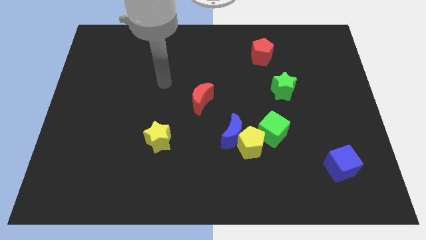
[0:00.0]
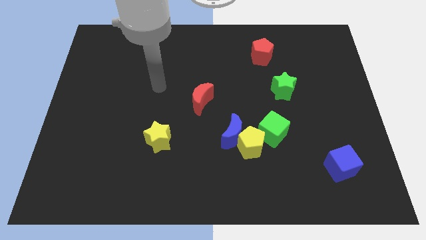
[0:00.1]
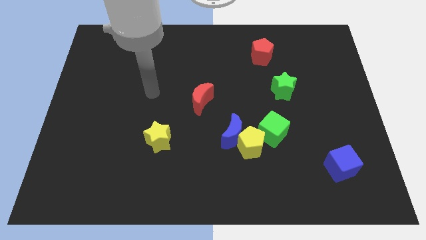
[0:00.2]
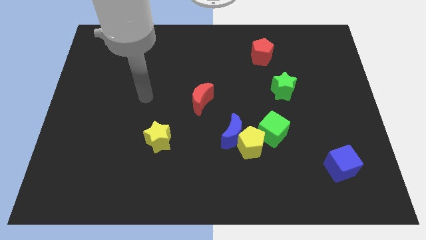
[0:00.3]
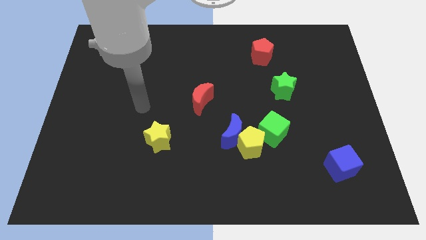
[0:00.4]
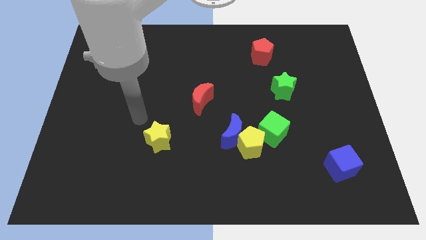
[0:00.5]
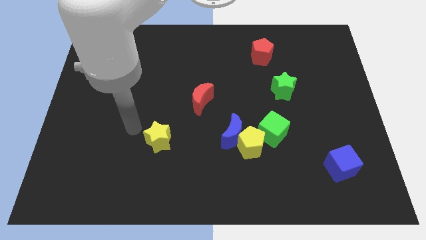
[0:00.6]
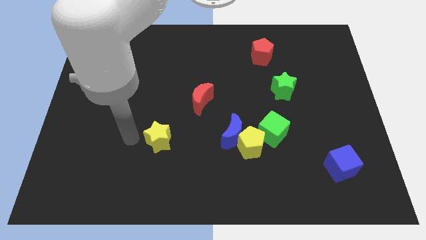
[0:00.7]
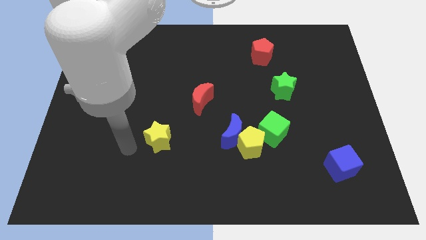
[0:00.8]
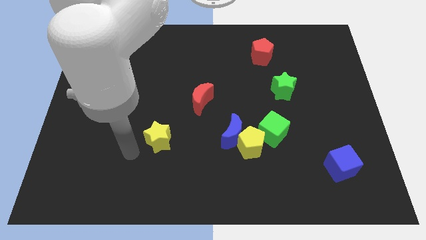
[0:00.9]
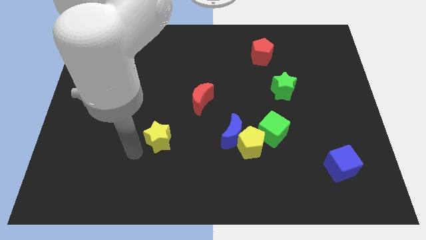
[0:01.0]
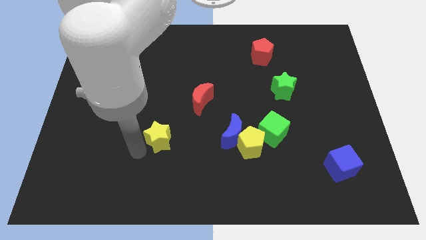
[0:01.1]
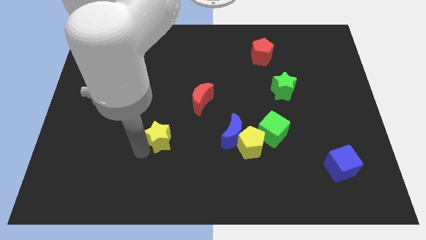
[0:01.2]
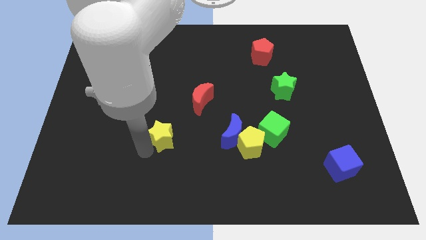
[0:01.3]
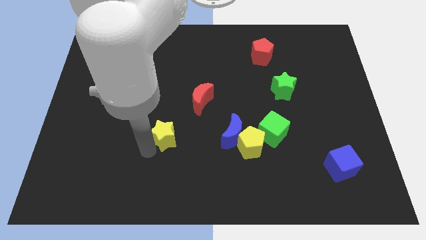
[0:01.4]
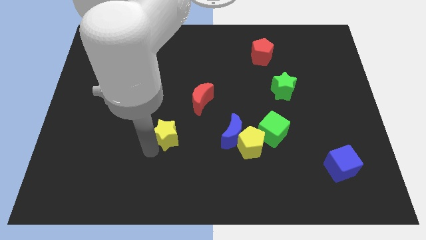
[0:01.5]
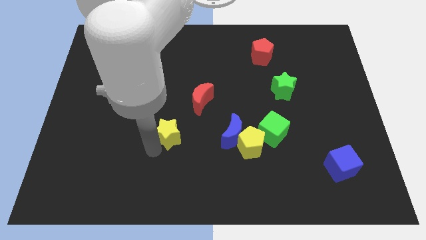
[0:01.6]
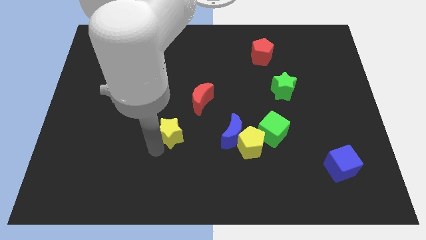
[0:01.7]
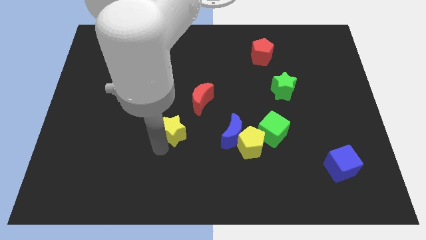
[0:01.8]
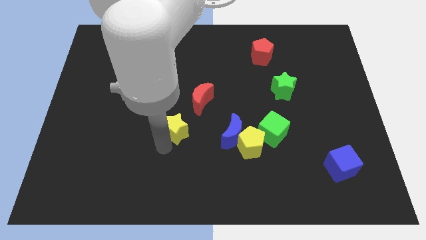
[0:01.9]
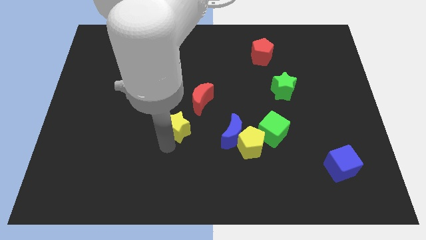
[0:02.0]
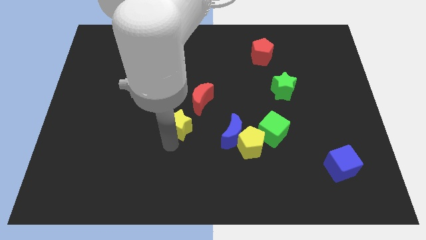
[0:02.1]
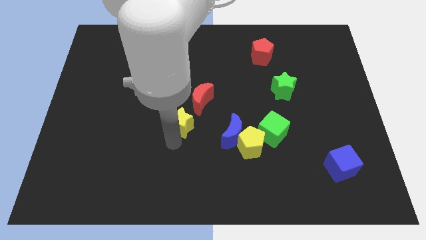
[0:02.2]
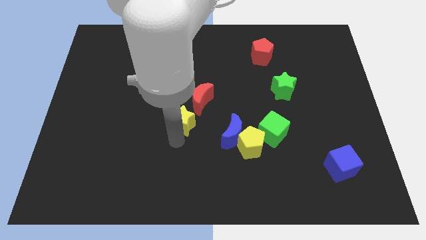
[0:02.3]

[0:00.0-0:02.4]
move the yellow star up and to the right somewhat

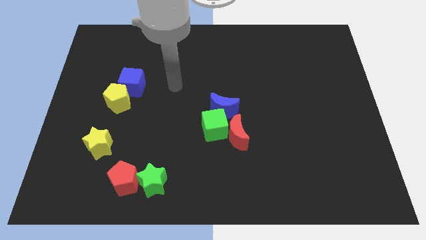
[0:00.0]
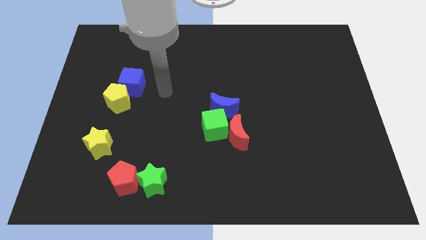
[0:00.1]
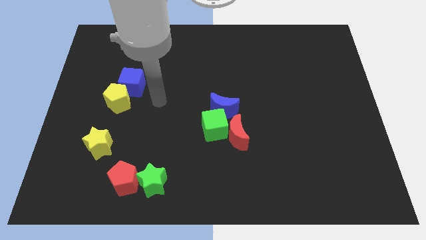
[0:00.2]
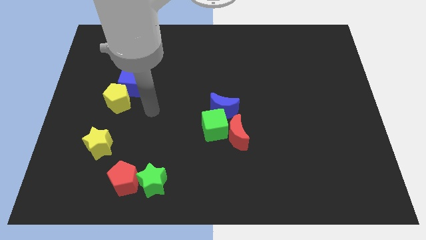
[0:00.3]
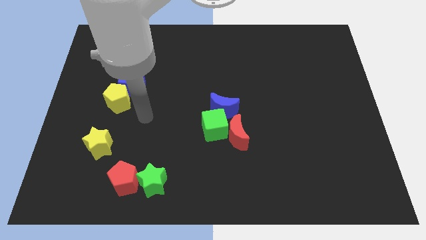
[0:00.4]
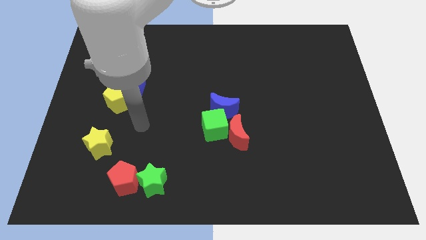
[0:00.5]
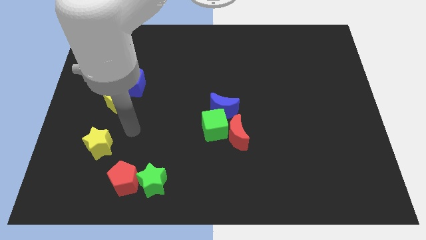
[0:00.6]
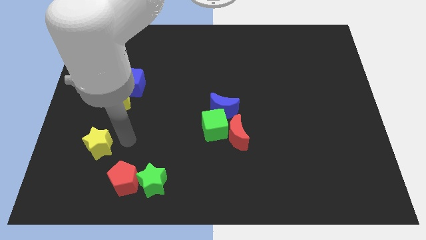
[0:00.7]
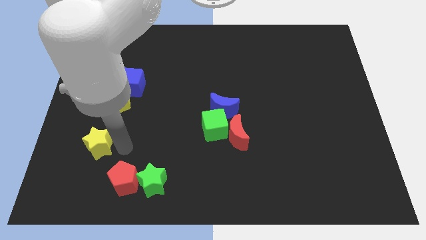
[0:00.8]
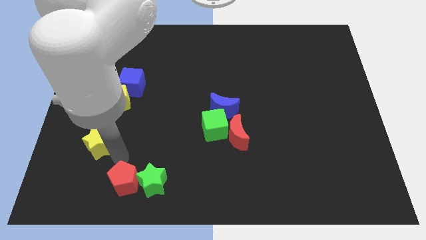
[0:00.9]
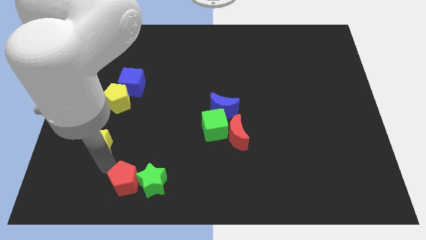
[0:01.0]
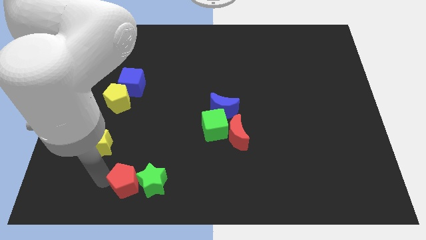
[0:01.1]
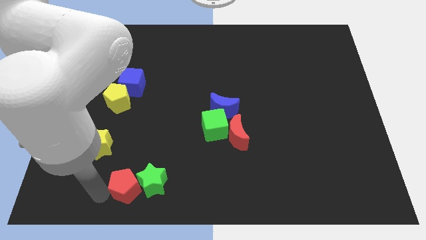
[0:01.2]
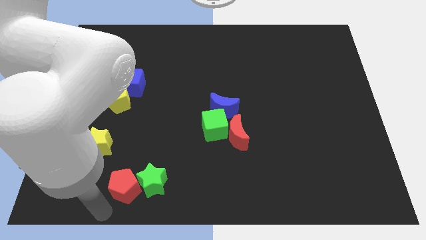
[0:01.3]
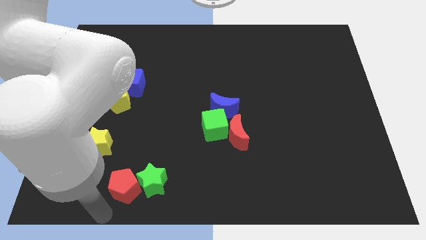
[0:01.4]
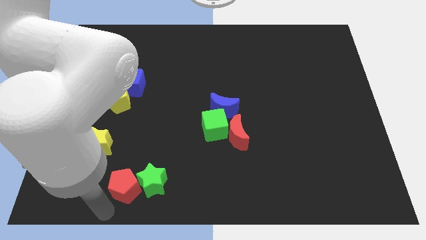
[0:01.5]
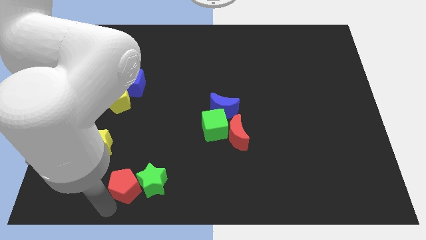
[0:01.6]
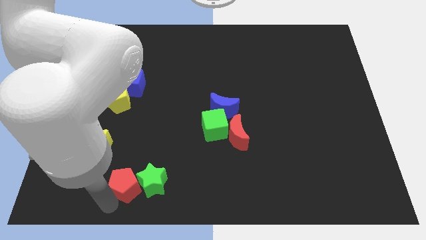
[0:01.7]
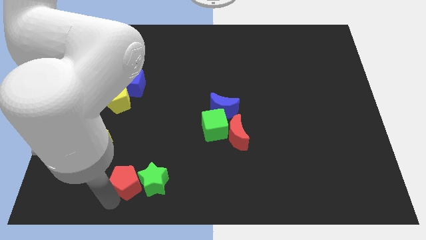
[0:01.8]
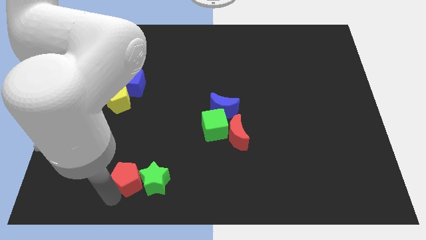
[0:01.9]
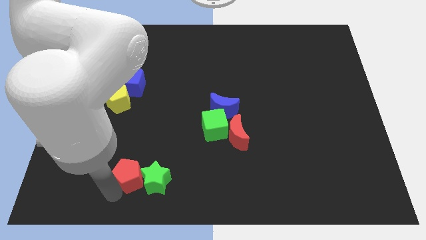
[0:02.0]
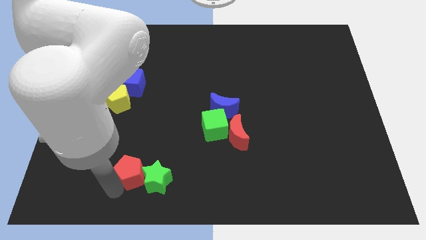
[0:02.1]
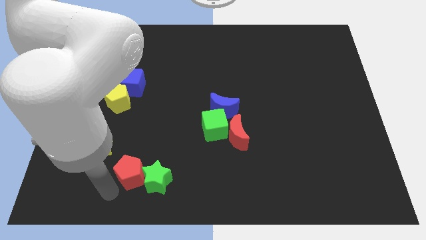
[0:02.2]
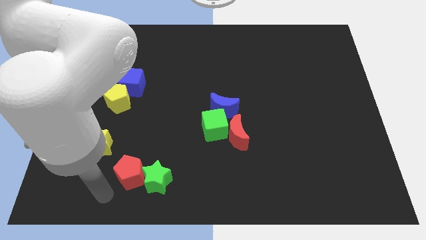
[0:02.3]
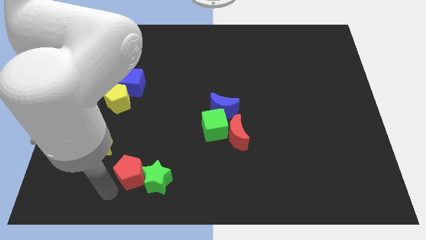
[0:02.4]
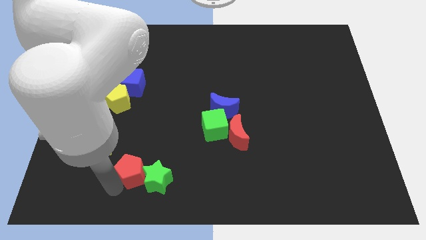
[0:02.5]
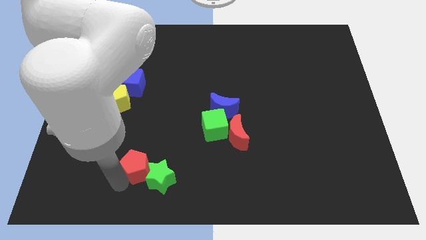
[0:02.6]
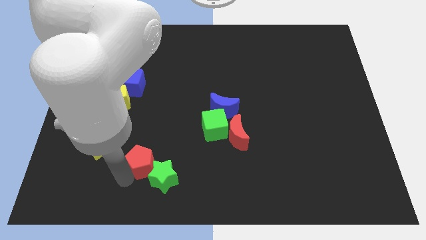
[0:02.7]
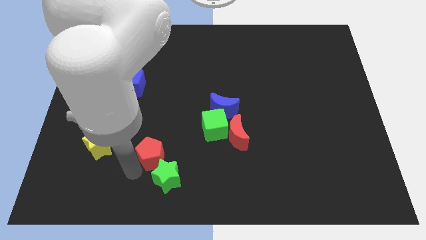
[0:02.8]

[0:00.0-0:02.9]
slightly slide the red pentagon upwards and then to the right

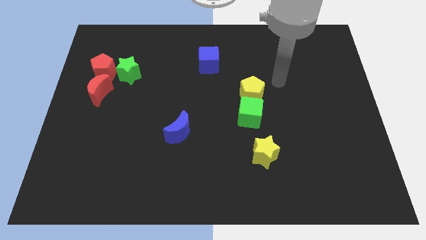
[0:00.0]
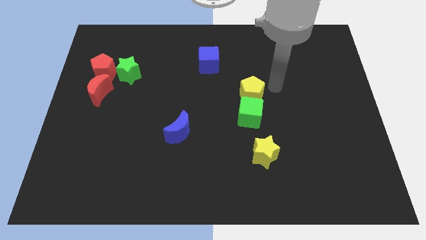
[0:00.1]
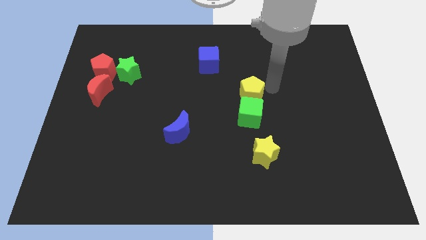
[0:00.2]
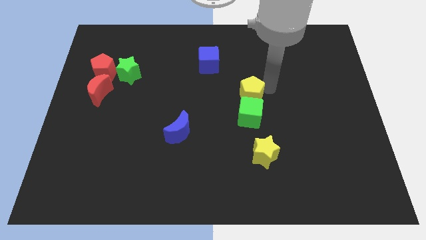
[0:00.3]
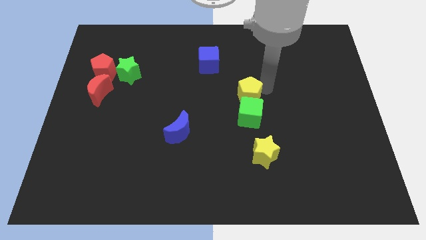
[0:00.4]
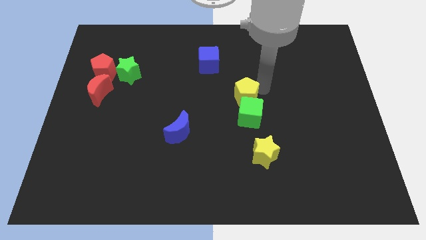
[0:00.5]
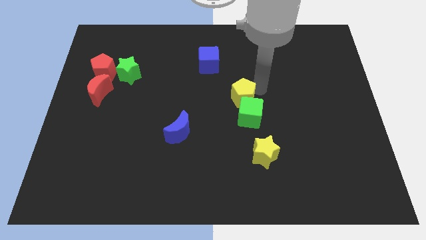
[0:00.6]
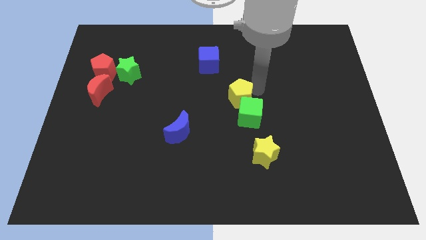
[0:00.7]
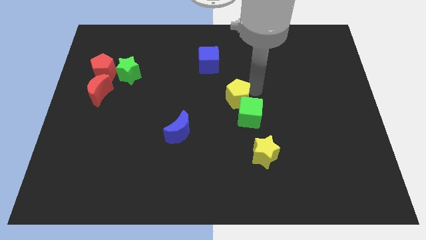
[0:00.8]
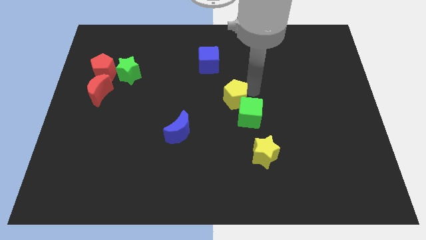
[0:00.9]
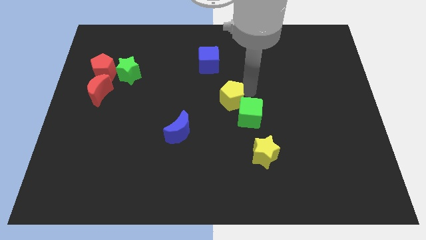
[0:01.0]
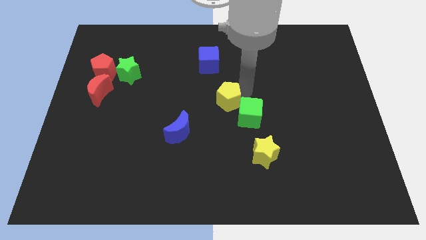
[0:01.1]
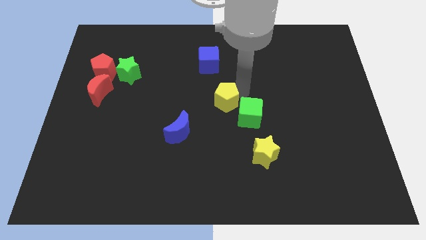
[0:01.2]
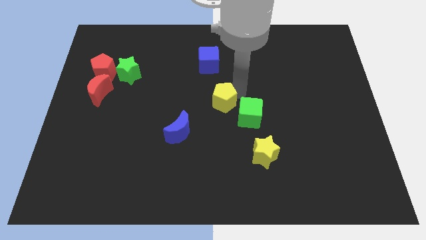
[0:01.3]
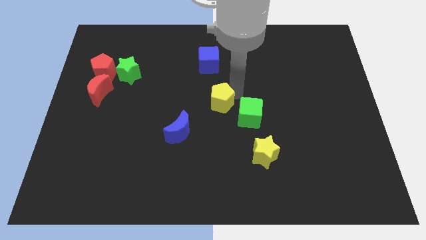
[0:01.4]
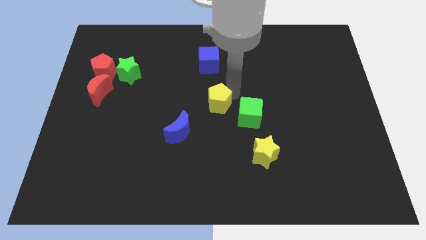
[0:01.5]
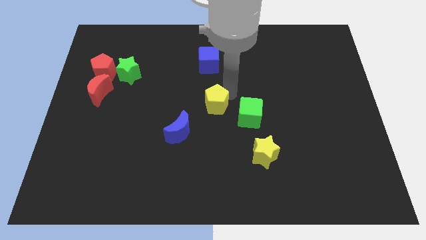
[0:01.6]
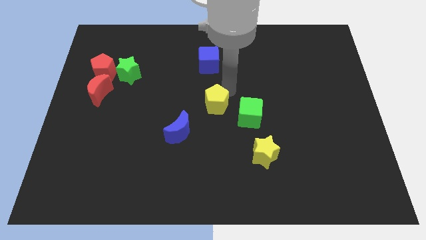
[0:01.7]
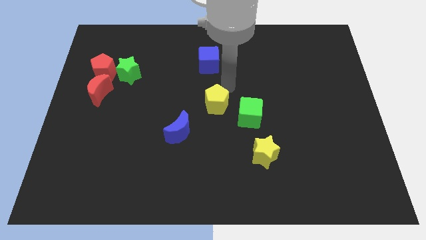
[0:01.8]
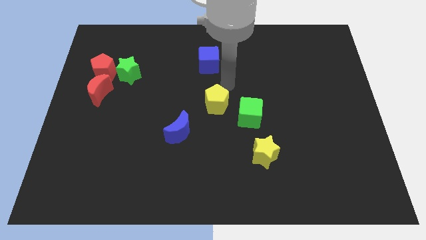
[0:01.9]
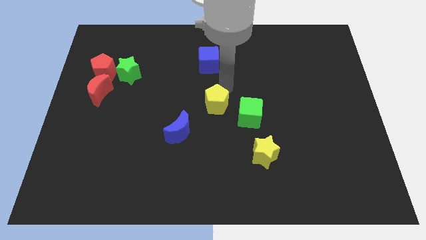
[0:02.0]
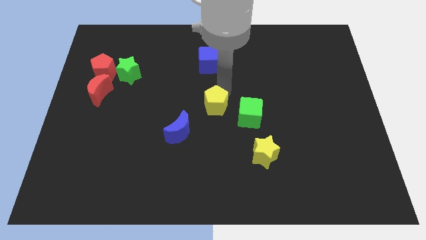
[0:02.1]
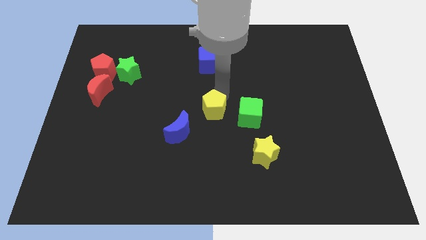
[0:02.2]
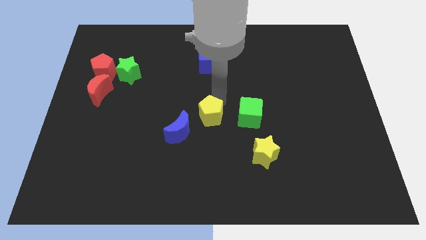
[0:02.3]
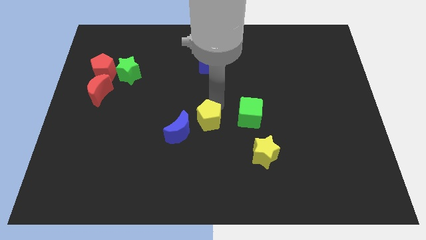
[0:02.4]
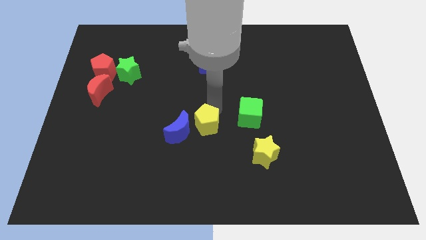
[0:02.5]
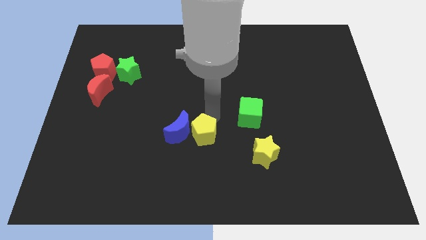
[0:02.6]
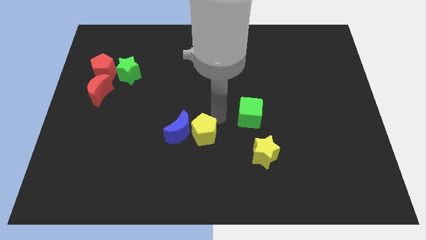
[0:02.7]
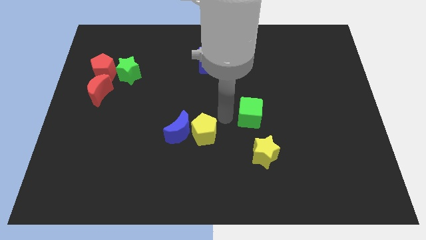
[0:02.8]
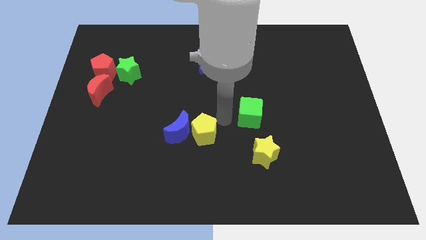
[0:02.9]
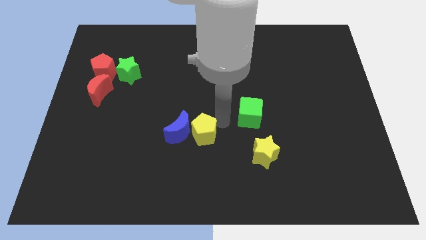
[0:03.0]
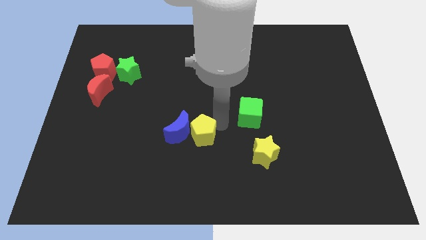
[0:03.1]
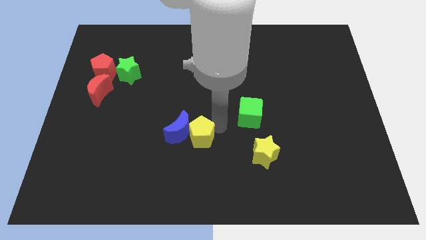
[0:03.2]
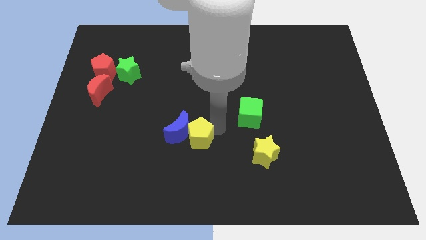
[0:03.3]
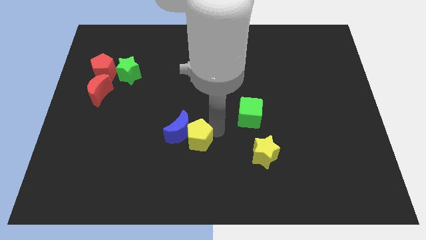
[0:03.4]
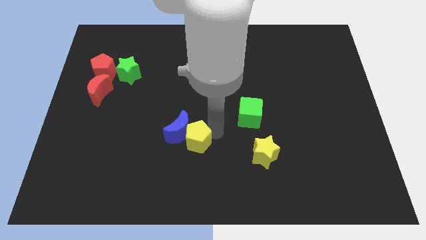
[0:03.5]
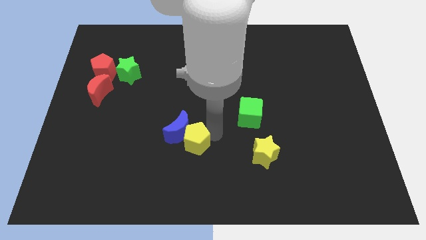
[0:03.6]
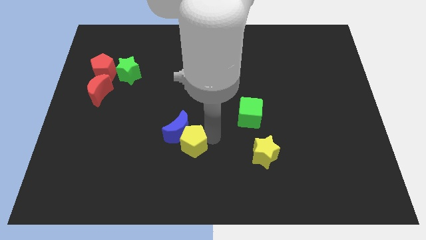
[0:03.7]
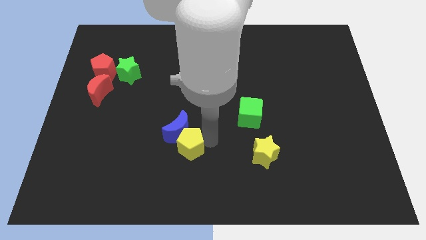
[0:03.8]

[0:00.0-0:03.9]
slide the yellow pentagon down and left
